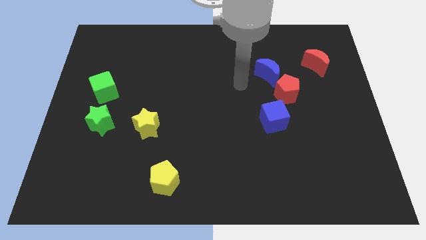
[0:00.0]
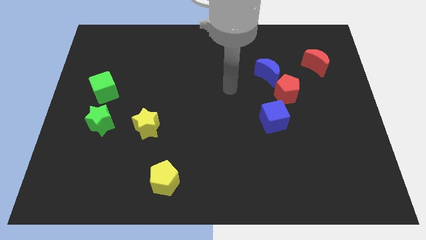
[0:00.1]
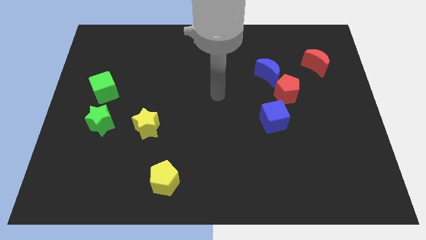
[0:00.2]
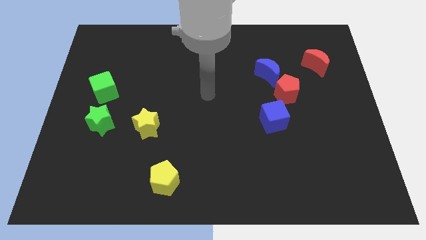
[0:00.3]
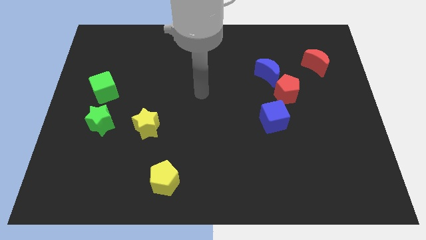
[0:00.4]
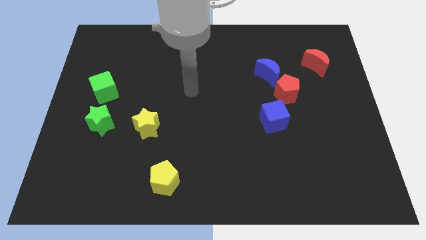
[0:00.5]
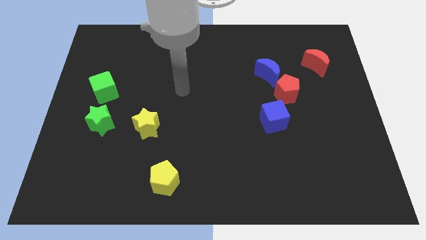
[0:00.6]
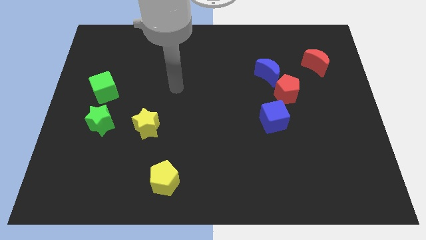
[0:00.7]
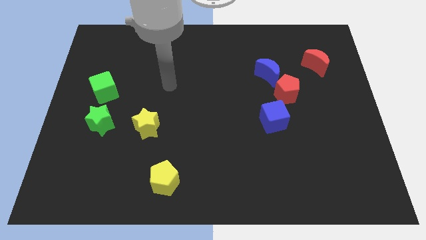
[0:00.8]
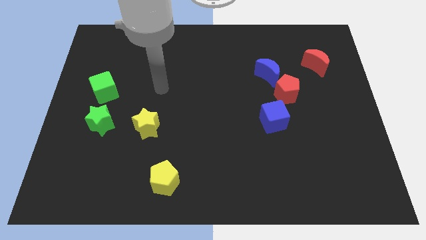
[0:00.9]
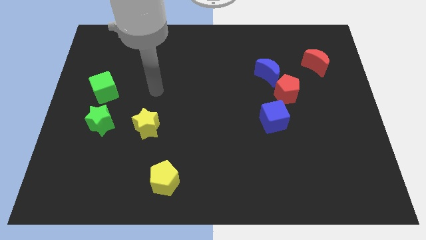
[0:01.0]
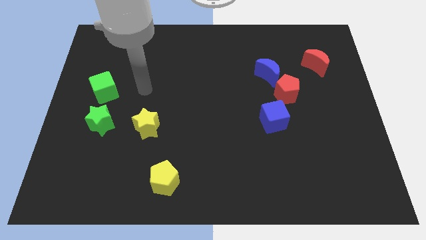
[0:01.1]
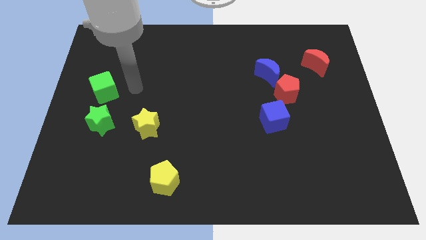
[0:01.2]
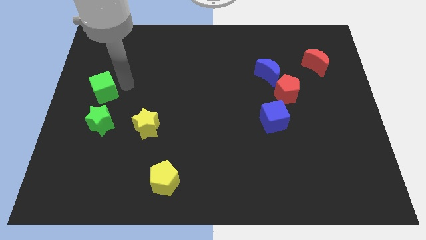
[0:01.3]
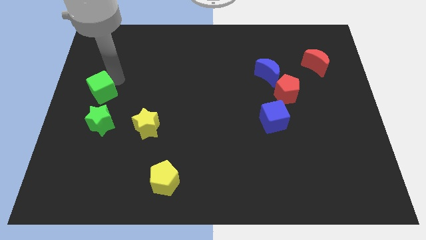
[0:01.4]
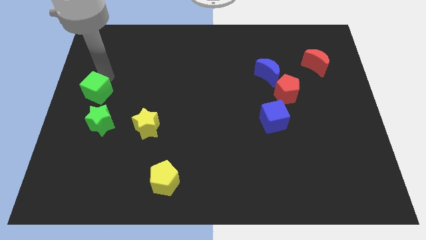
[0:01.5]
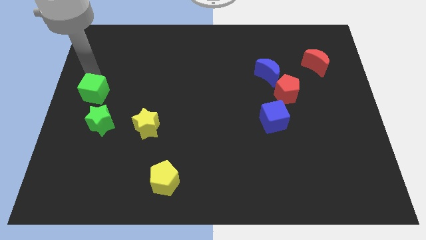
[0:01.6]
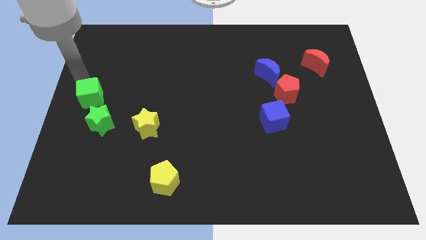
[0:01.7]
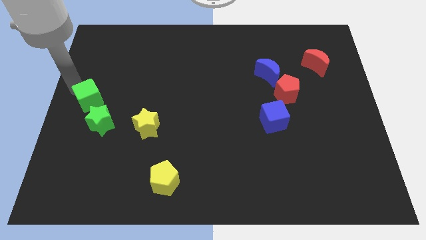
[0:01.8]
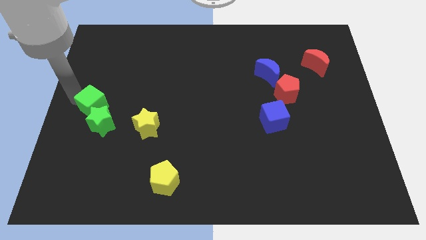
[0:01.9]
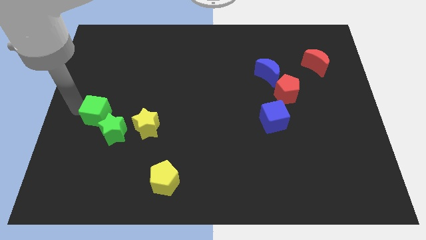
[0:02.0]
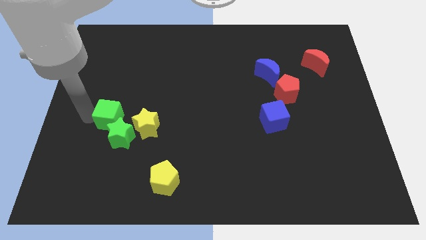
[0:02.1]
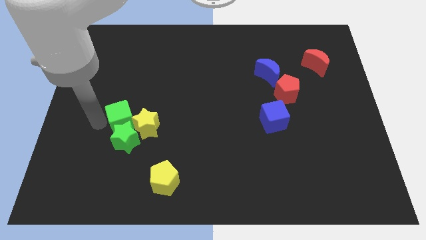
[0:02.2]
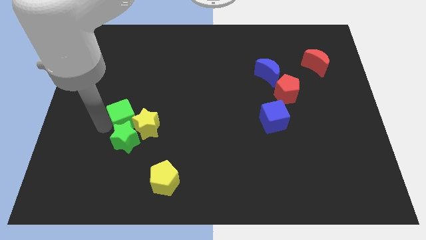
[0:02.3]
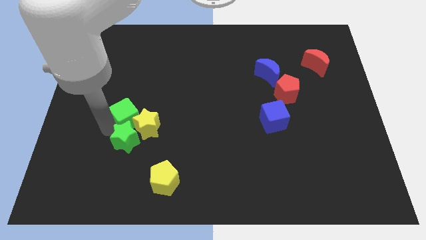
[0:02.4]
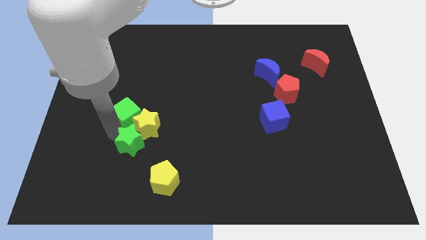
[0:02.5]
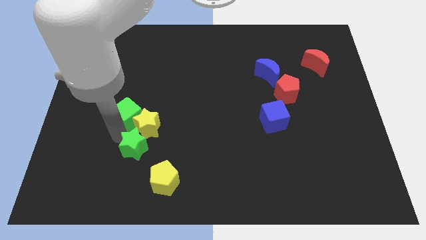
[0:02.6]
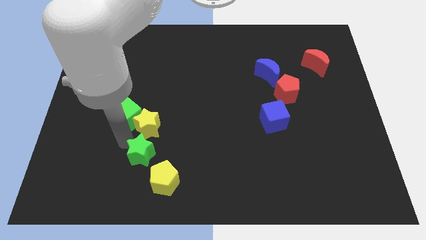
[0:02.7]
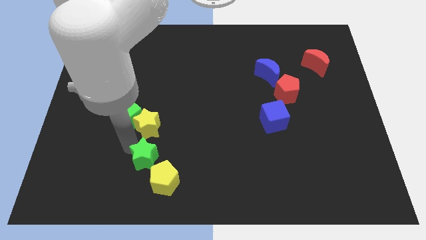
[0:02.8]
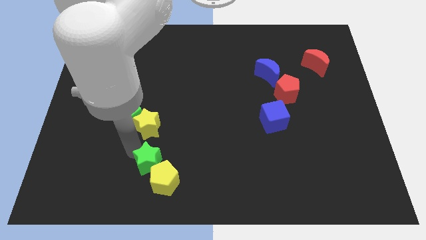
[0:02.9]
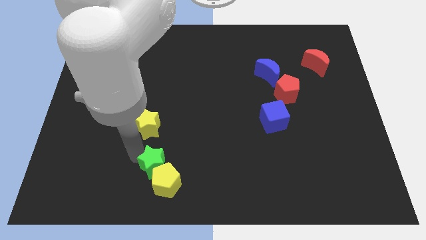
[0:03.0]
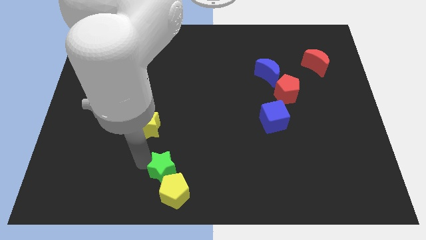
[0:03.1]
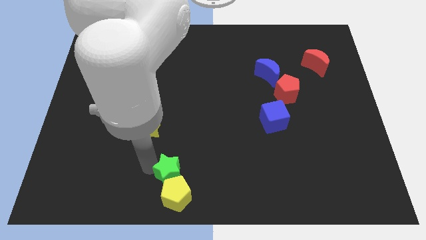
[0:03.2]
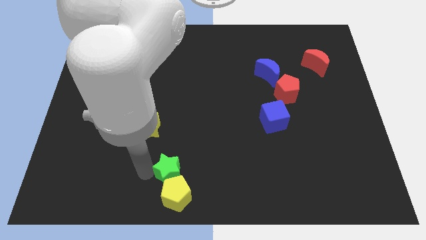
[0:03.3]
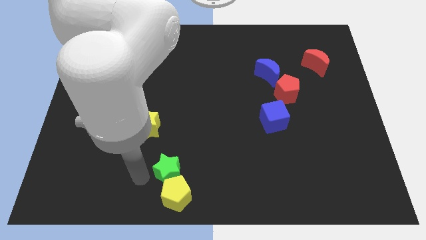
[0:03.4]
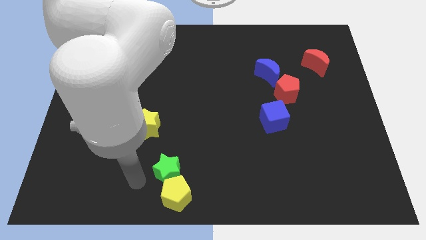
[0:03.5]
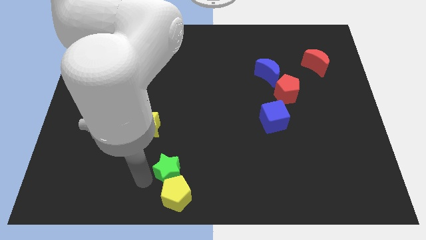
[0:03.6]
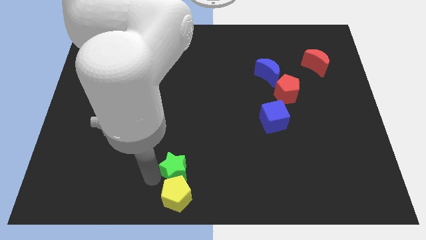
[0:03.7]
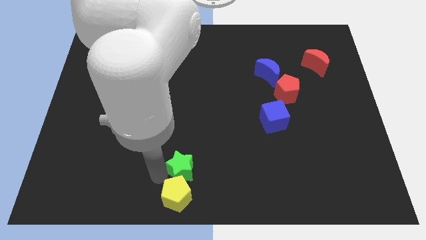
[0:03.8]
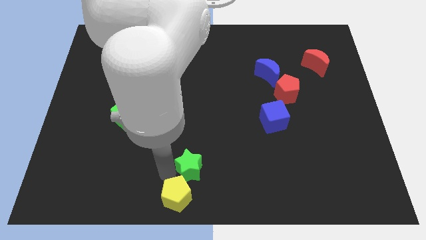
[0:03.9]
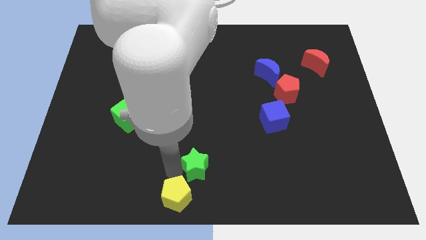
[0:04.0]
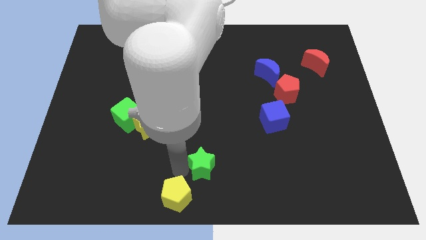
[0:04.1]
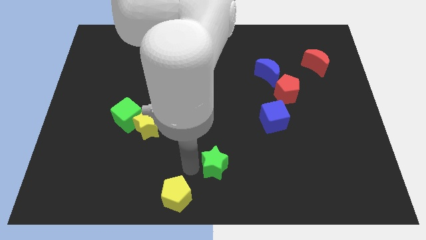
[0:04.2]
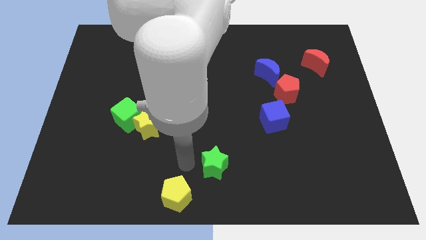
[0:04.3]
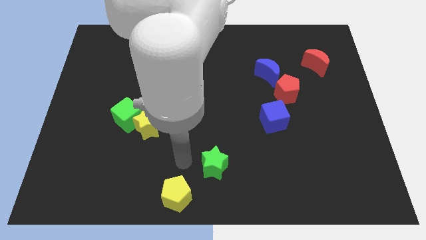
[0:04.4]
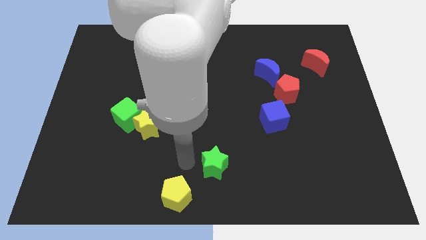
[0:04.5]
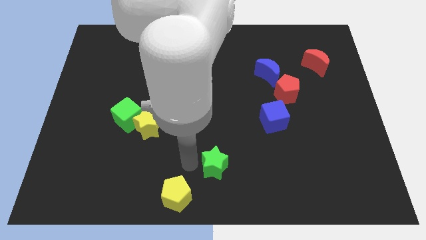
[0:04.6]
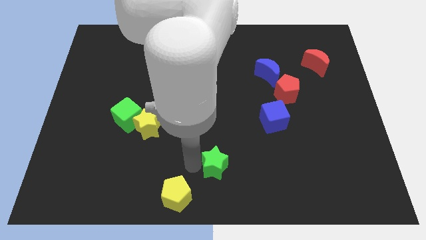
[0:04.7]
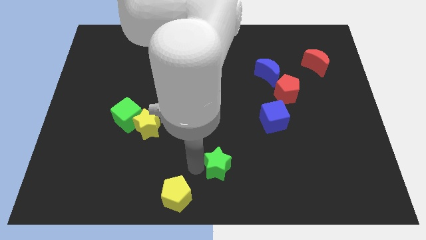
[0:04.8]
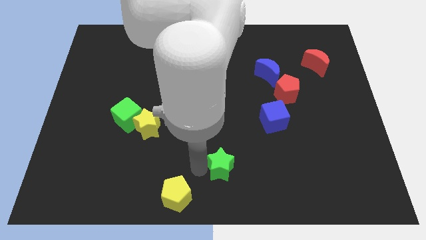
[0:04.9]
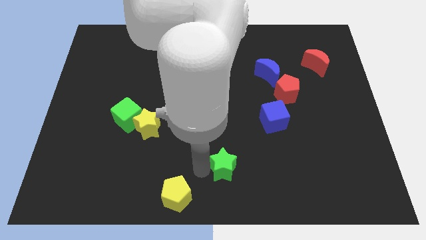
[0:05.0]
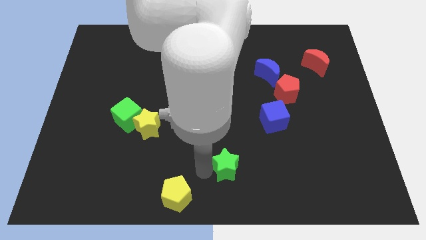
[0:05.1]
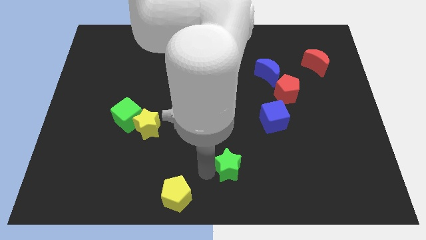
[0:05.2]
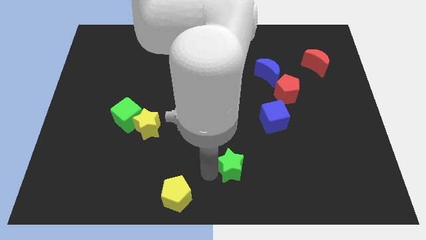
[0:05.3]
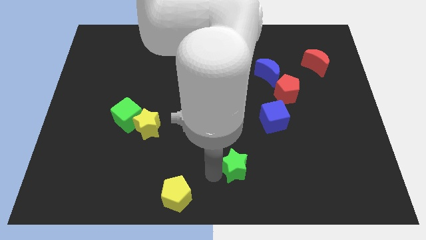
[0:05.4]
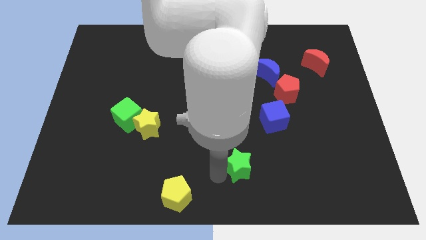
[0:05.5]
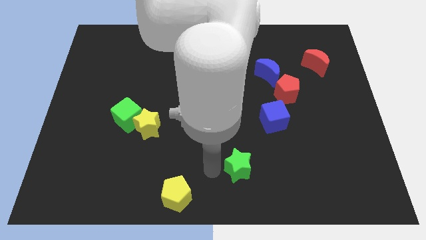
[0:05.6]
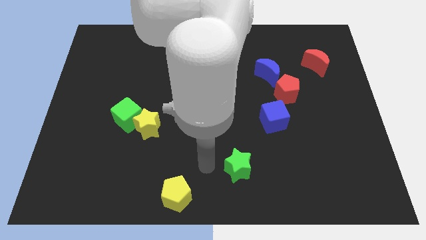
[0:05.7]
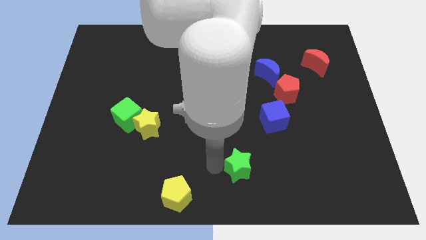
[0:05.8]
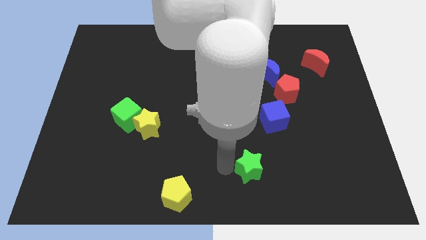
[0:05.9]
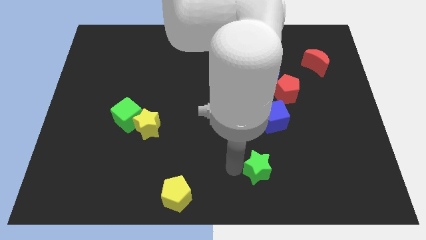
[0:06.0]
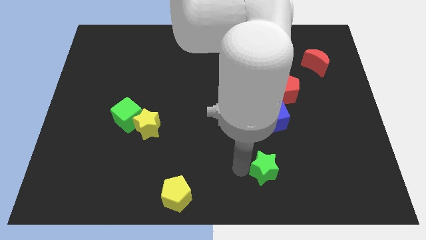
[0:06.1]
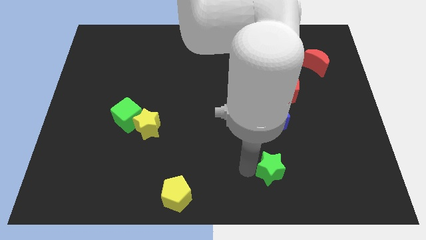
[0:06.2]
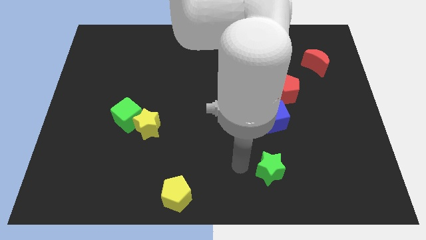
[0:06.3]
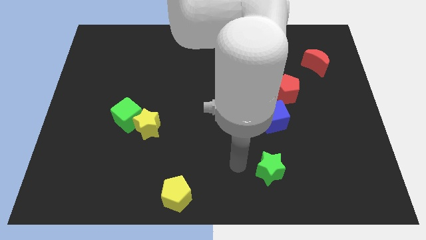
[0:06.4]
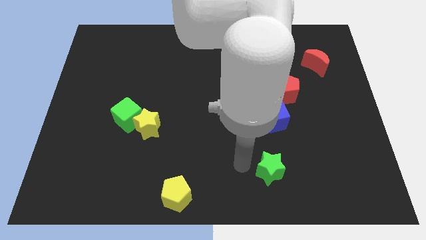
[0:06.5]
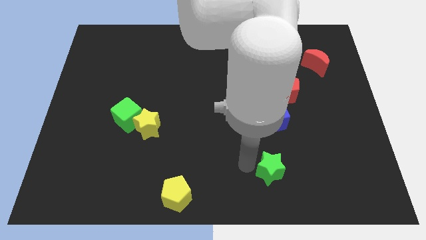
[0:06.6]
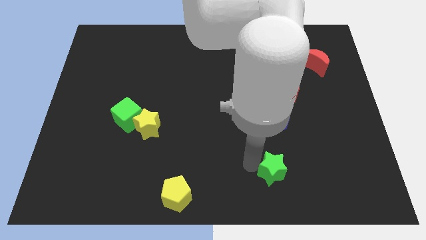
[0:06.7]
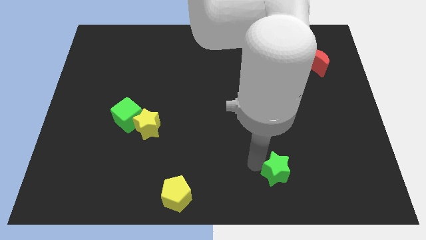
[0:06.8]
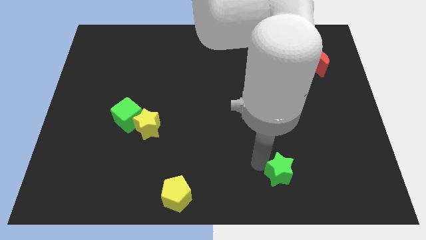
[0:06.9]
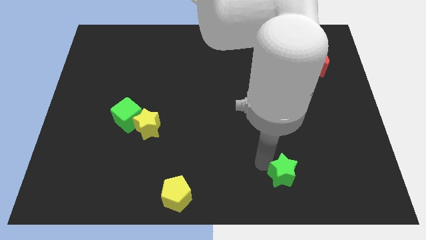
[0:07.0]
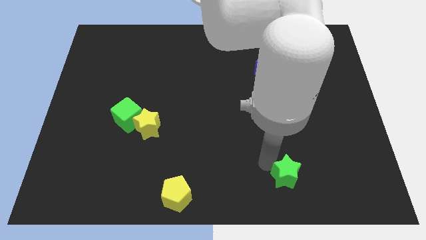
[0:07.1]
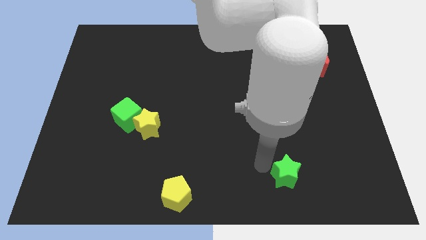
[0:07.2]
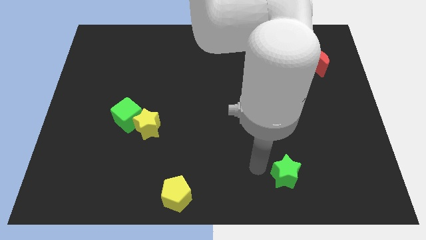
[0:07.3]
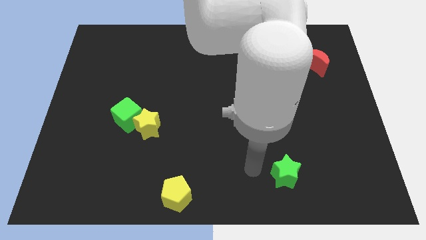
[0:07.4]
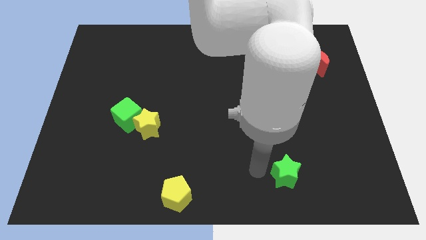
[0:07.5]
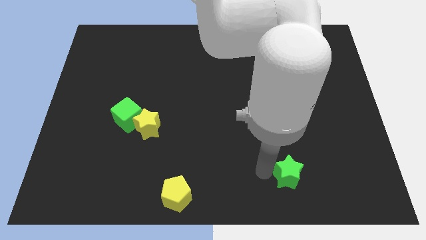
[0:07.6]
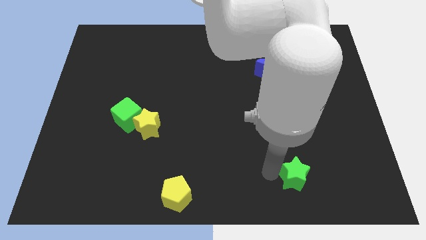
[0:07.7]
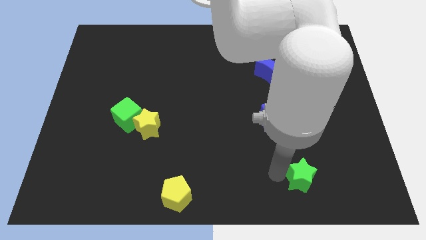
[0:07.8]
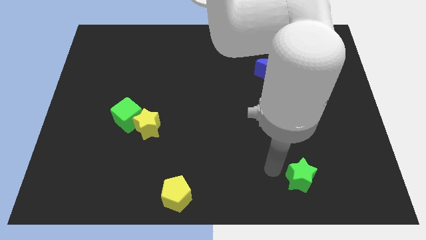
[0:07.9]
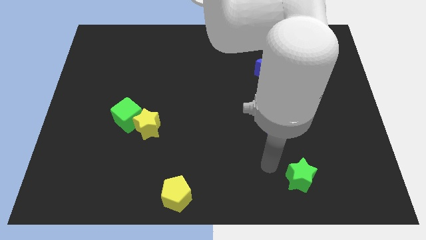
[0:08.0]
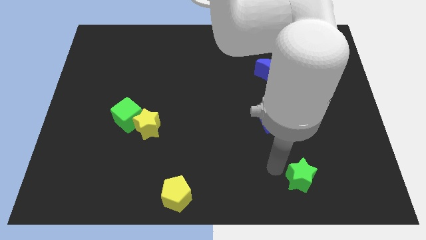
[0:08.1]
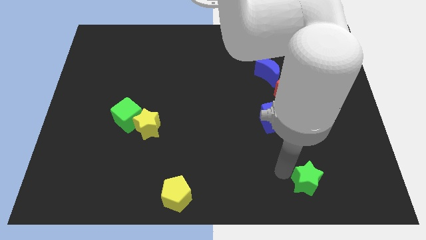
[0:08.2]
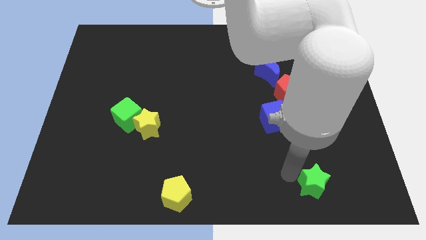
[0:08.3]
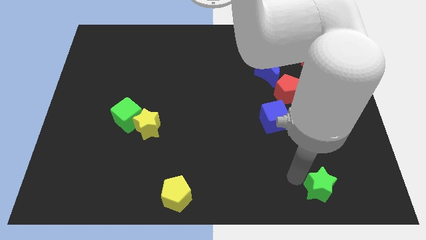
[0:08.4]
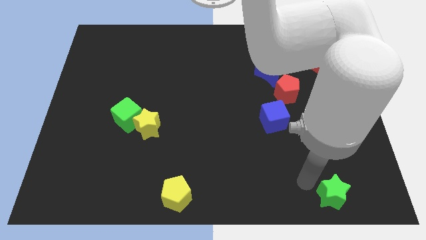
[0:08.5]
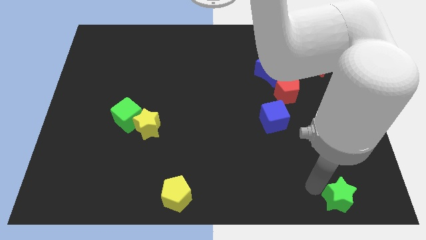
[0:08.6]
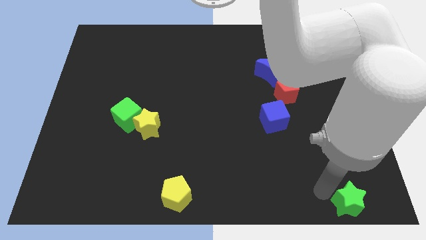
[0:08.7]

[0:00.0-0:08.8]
push the green star to the bottom right
